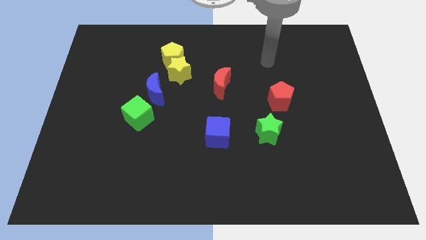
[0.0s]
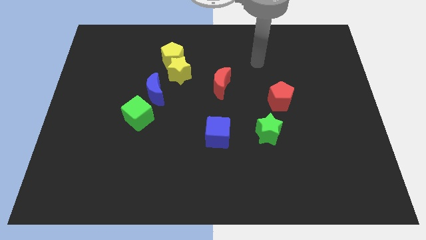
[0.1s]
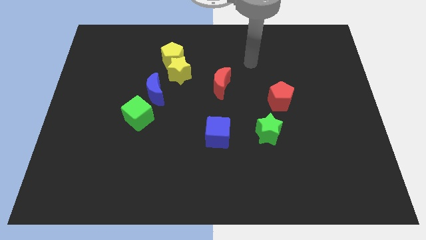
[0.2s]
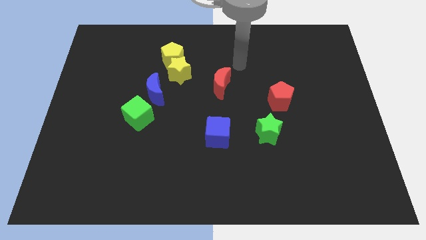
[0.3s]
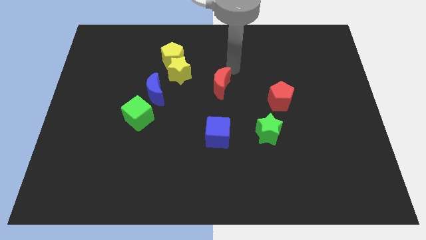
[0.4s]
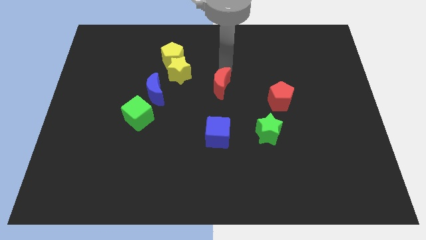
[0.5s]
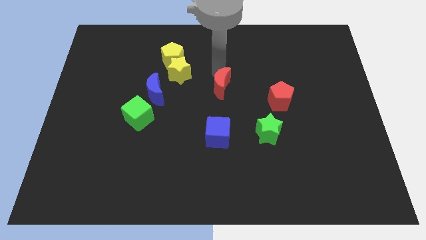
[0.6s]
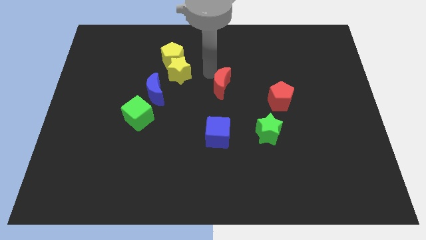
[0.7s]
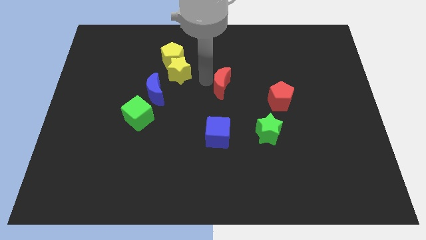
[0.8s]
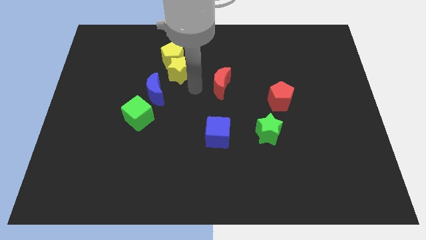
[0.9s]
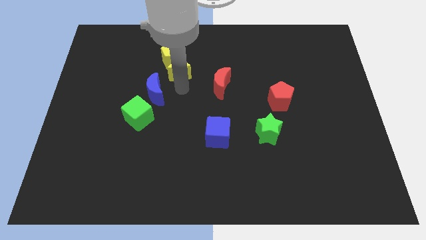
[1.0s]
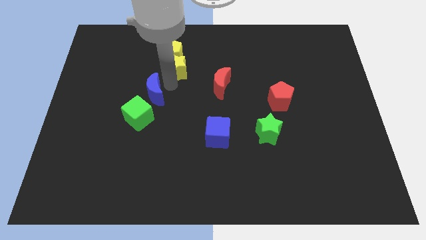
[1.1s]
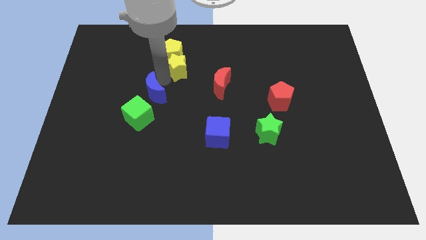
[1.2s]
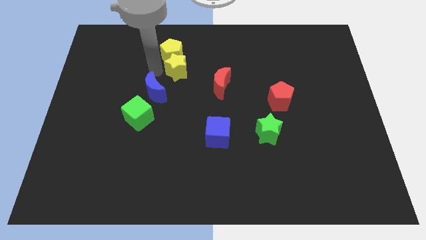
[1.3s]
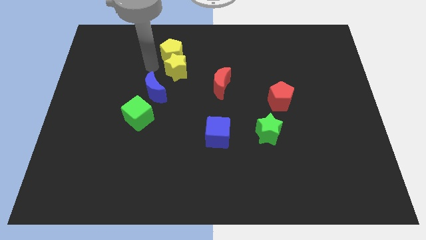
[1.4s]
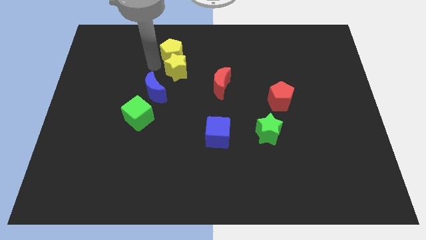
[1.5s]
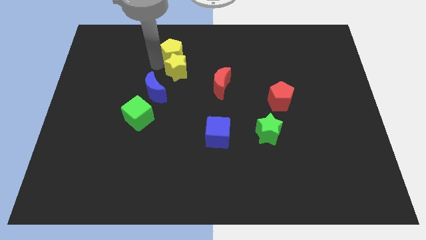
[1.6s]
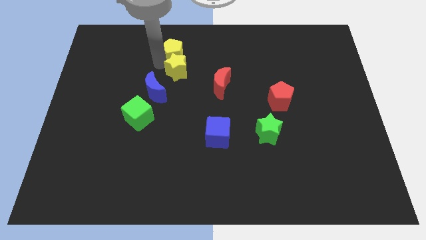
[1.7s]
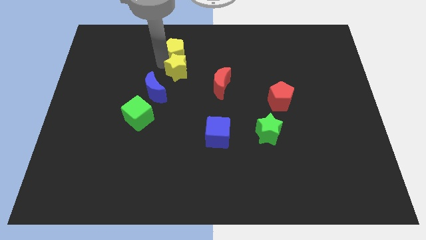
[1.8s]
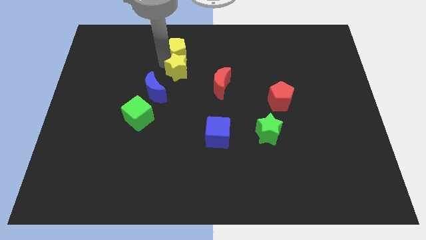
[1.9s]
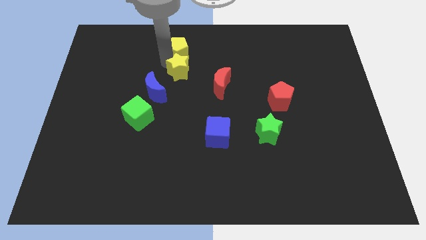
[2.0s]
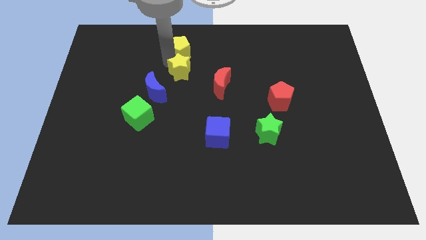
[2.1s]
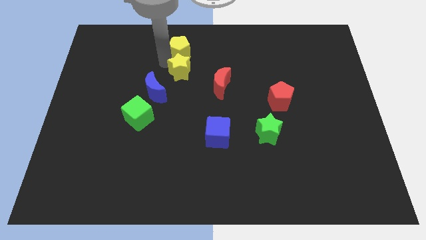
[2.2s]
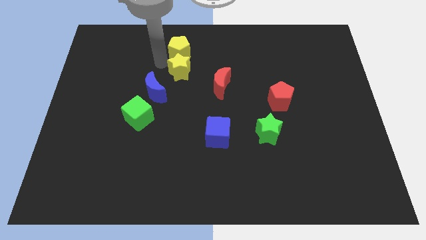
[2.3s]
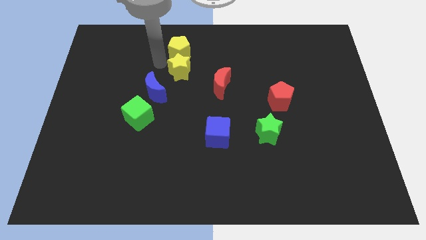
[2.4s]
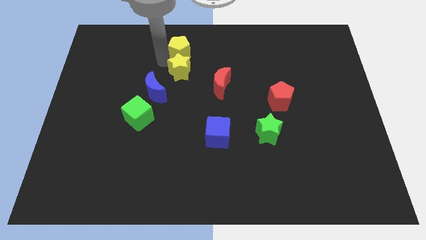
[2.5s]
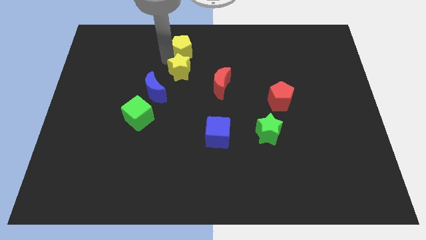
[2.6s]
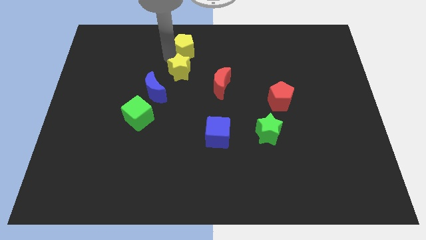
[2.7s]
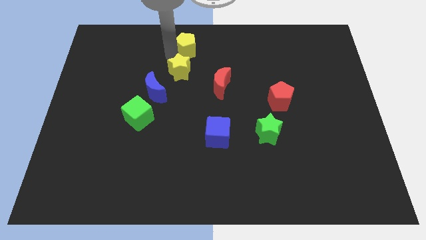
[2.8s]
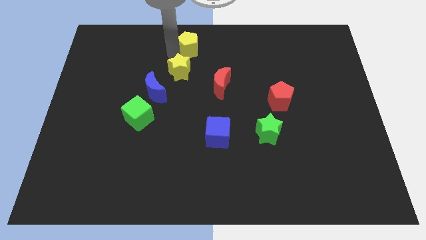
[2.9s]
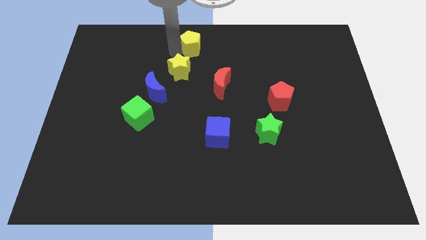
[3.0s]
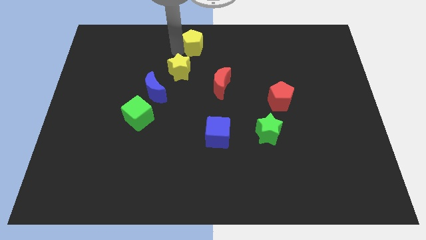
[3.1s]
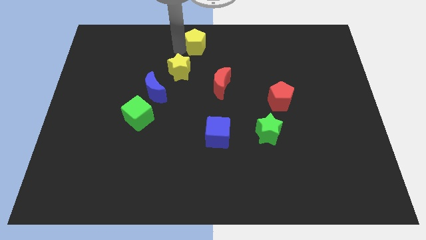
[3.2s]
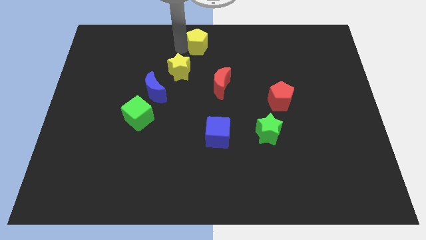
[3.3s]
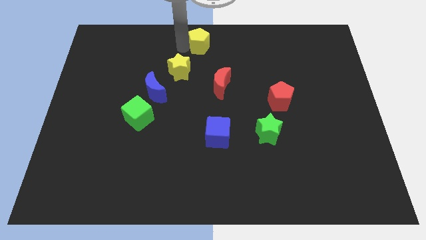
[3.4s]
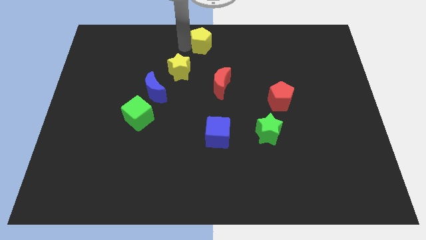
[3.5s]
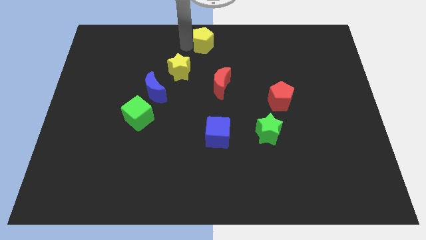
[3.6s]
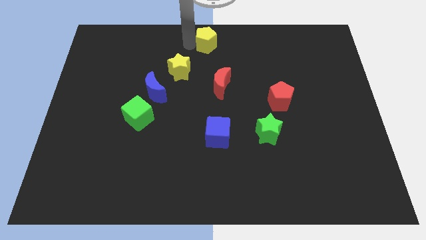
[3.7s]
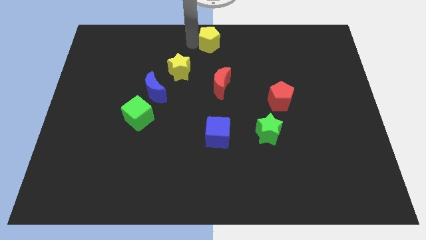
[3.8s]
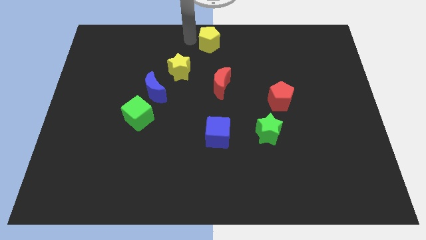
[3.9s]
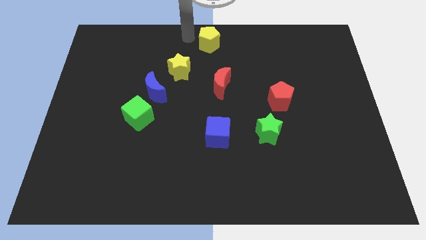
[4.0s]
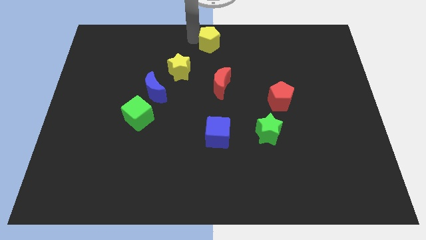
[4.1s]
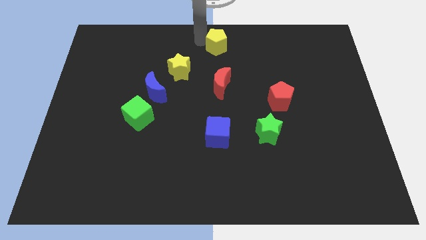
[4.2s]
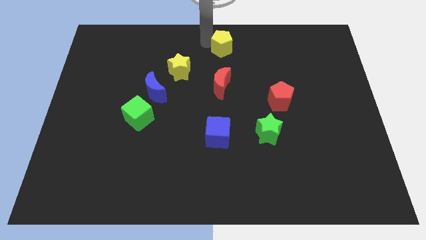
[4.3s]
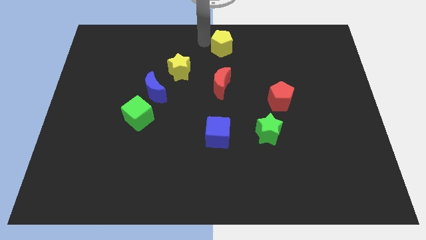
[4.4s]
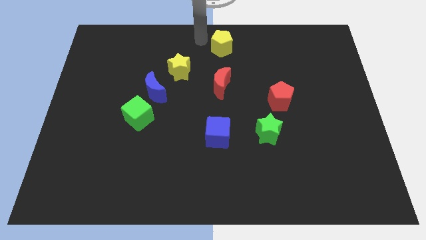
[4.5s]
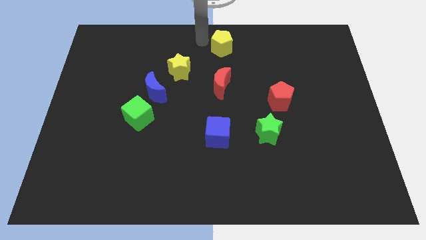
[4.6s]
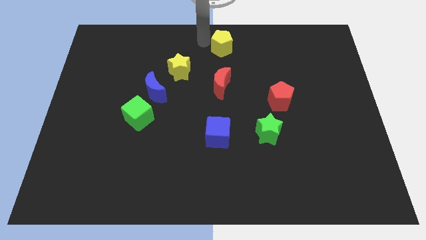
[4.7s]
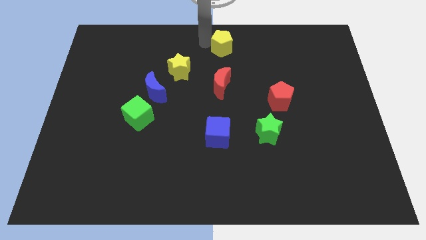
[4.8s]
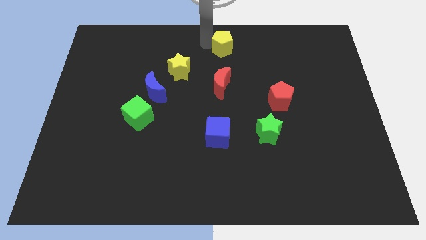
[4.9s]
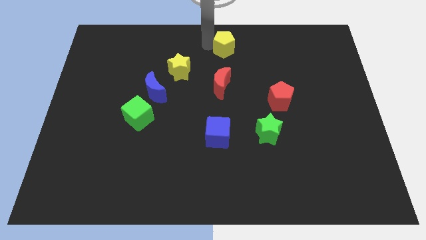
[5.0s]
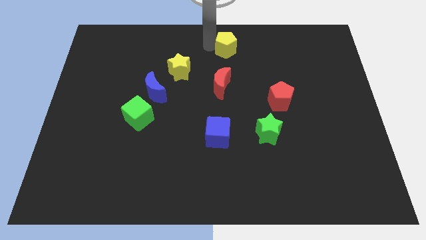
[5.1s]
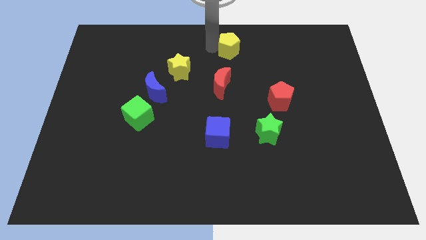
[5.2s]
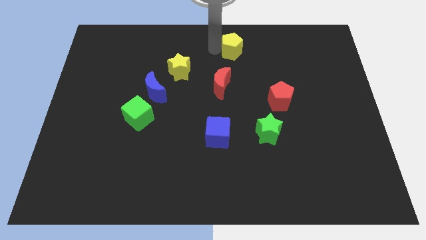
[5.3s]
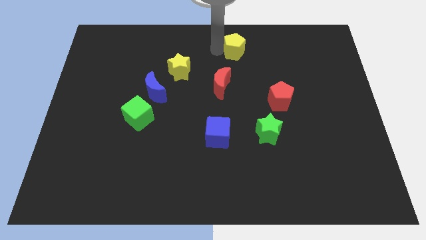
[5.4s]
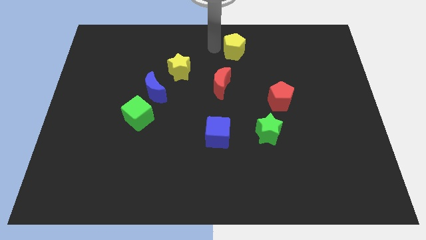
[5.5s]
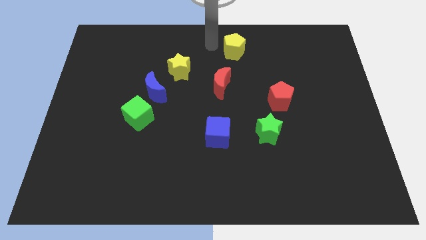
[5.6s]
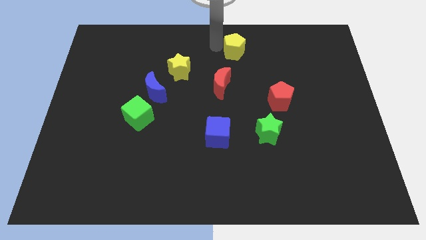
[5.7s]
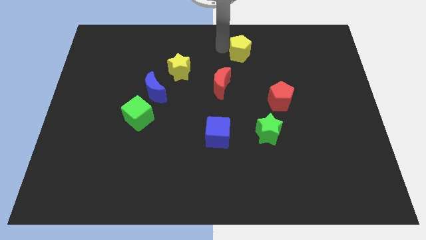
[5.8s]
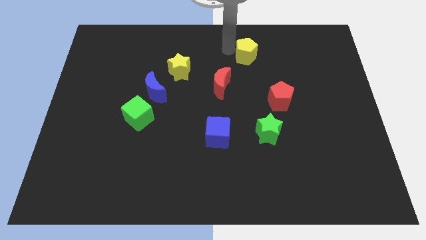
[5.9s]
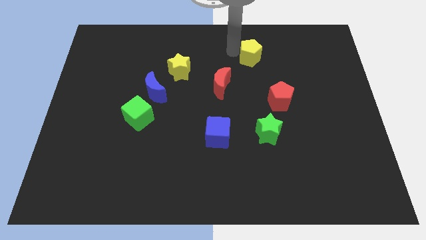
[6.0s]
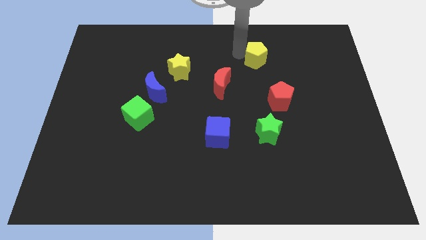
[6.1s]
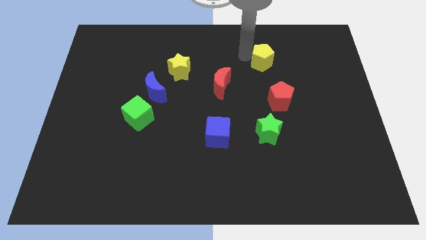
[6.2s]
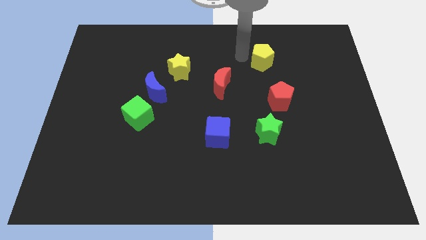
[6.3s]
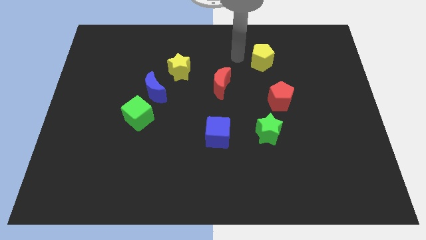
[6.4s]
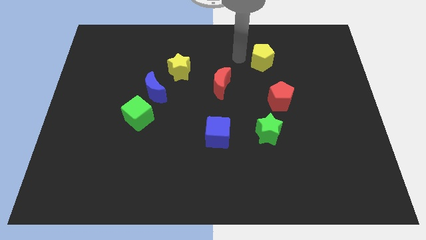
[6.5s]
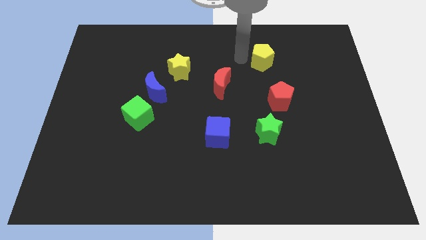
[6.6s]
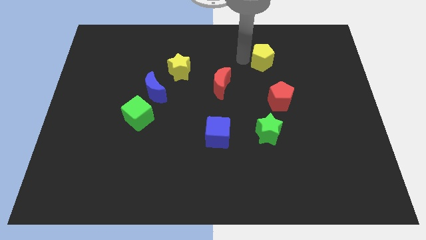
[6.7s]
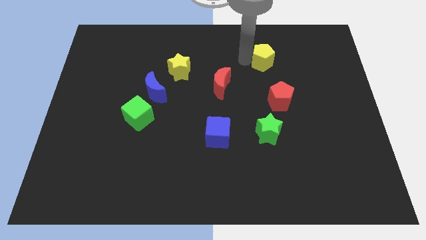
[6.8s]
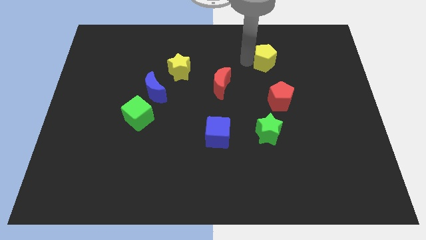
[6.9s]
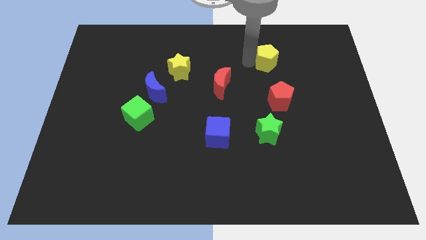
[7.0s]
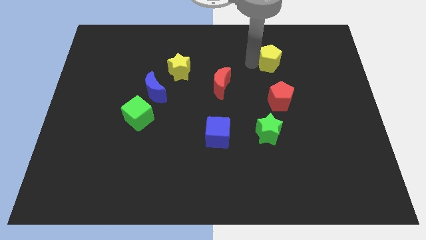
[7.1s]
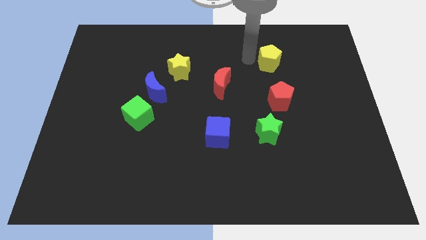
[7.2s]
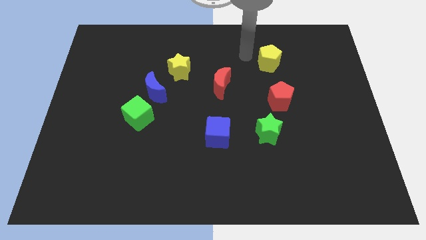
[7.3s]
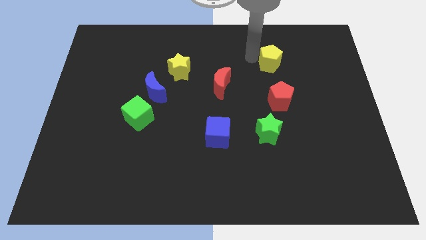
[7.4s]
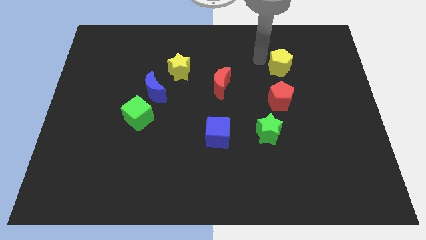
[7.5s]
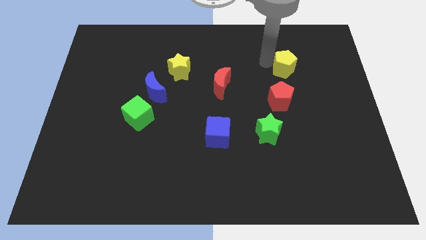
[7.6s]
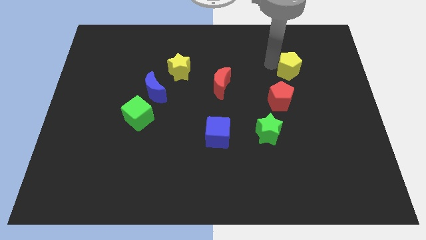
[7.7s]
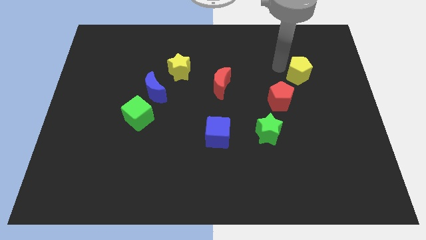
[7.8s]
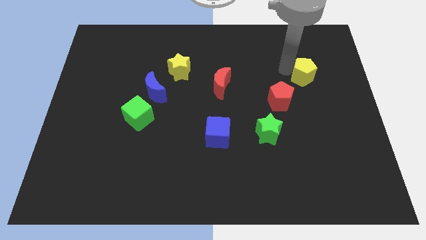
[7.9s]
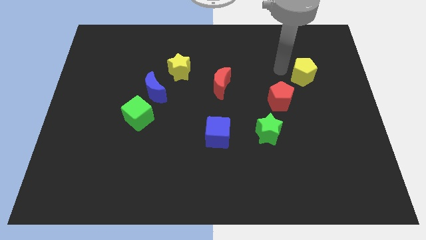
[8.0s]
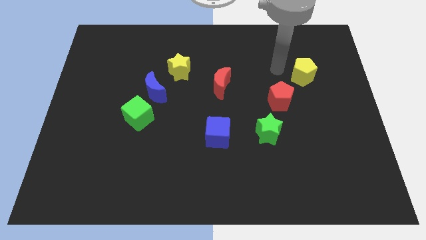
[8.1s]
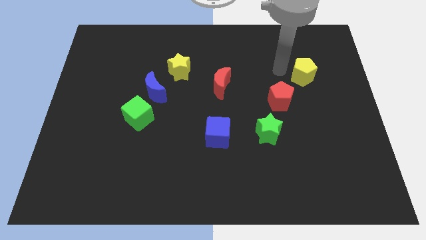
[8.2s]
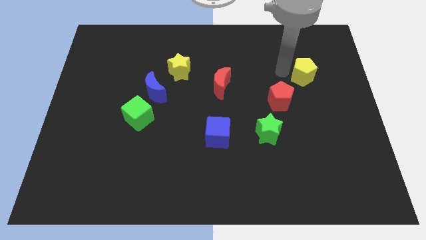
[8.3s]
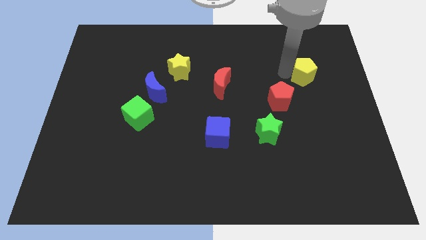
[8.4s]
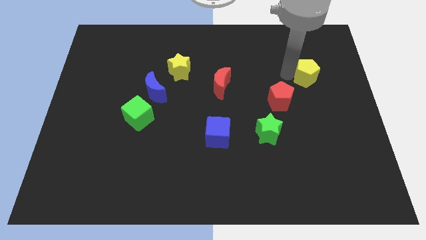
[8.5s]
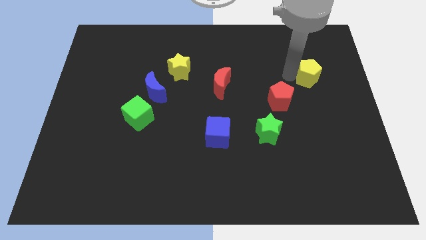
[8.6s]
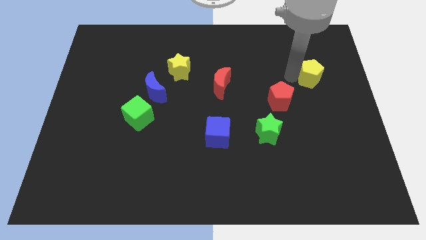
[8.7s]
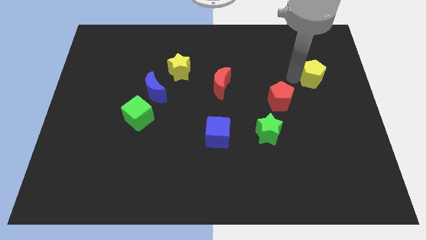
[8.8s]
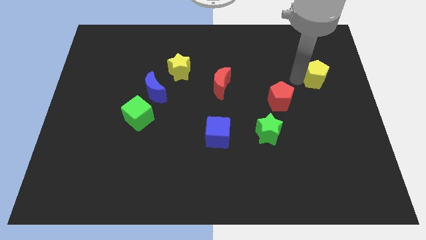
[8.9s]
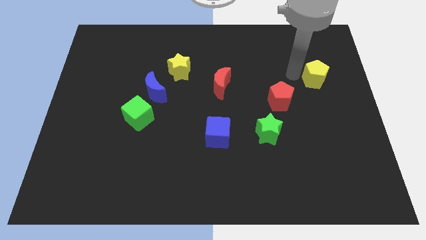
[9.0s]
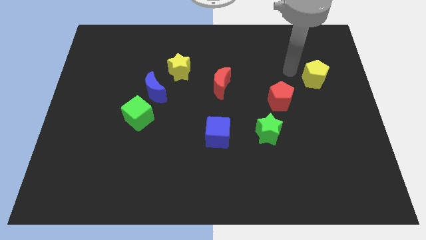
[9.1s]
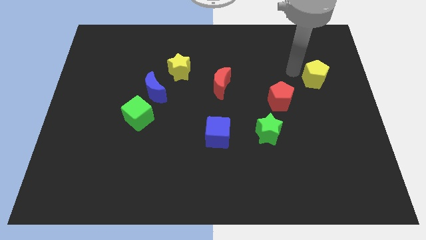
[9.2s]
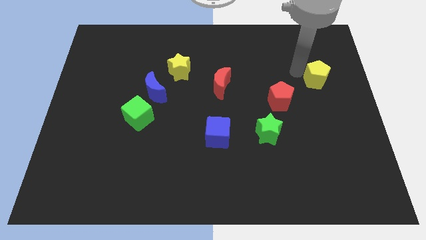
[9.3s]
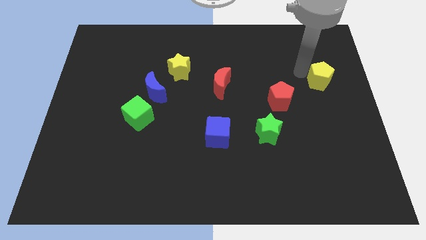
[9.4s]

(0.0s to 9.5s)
move the yellow pentagon to the right side
